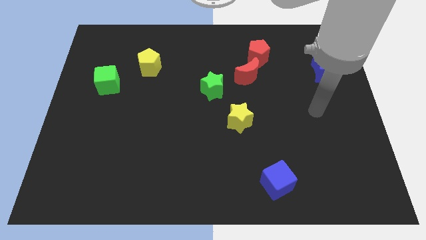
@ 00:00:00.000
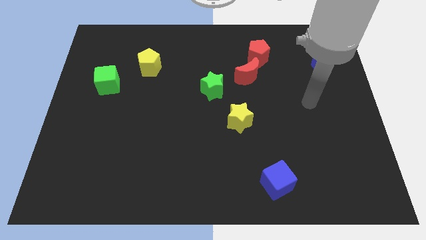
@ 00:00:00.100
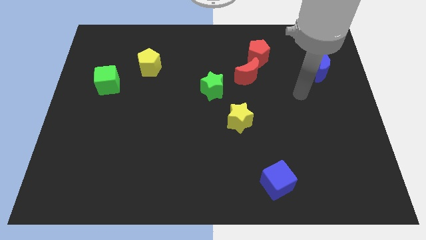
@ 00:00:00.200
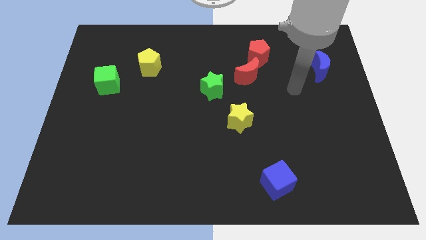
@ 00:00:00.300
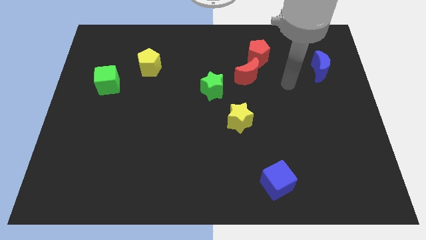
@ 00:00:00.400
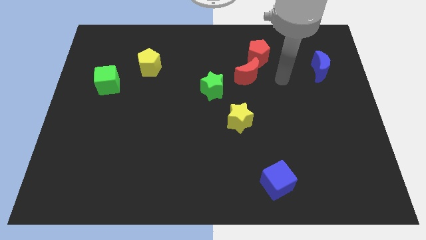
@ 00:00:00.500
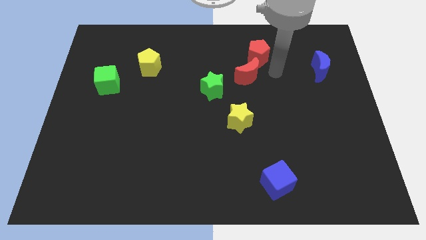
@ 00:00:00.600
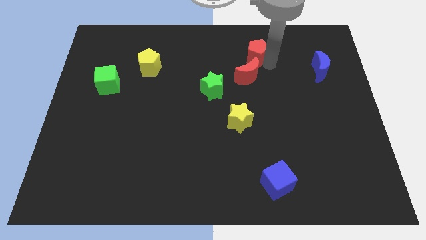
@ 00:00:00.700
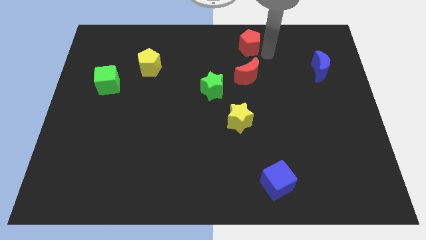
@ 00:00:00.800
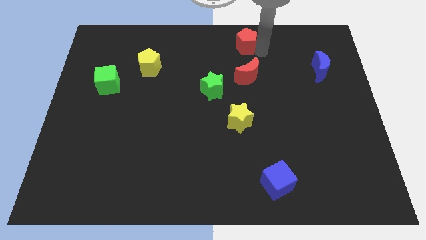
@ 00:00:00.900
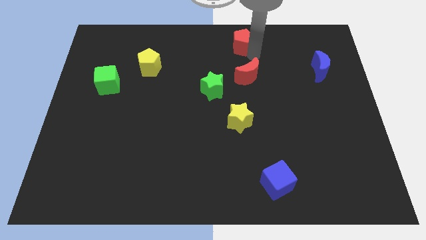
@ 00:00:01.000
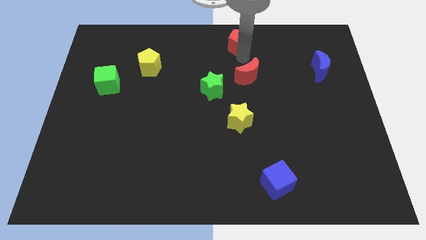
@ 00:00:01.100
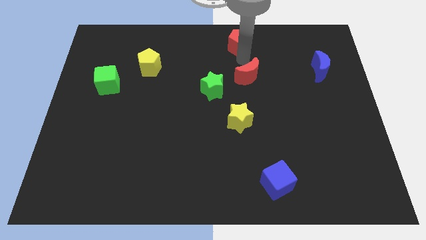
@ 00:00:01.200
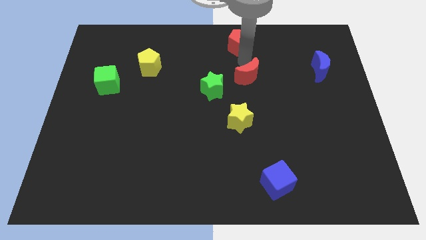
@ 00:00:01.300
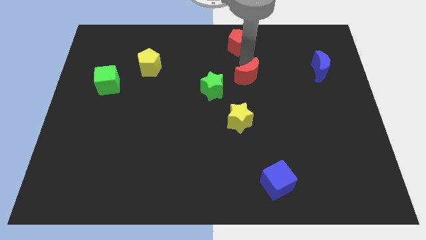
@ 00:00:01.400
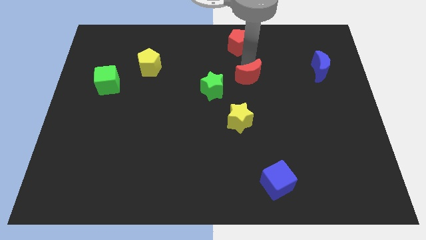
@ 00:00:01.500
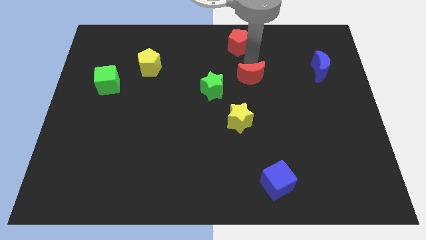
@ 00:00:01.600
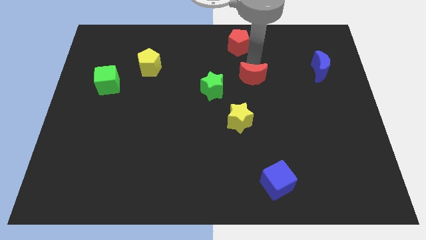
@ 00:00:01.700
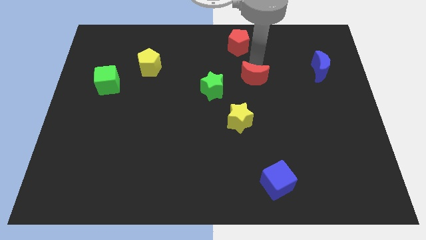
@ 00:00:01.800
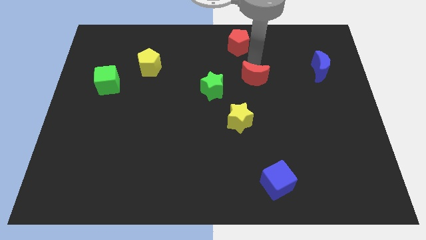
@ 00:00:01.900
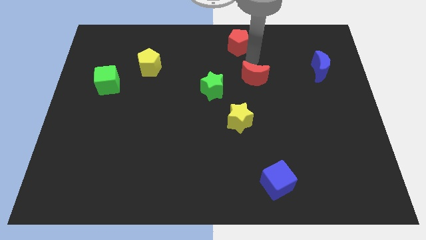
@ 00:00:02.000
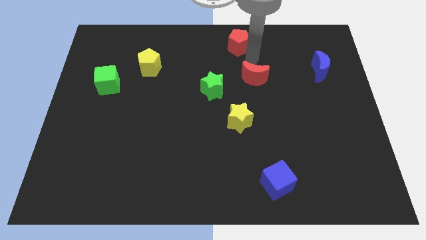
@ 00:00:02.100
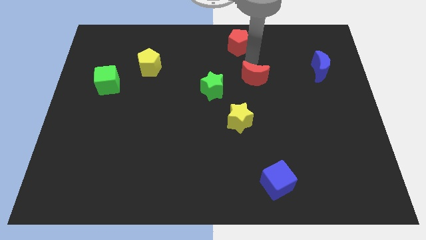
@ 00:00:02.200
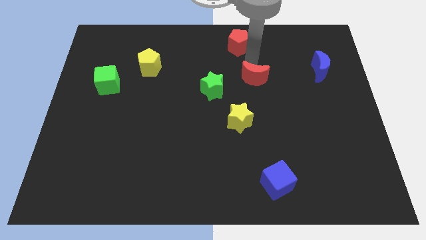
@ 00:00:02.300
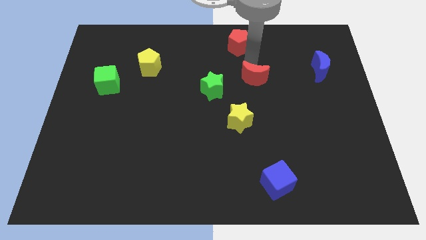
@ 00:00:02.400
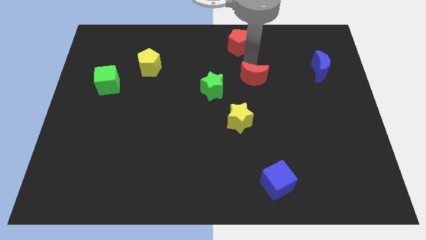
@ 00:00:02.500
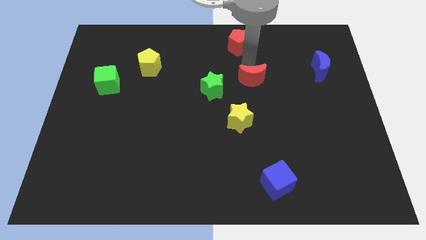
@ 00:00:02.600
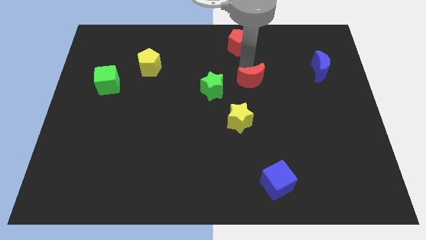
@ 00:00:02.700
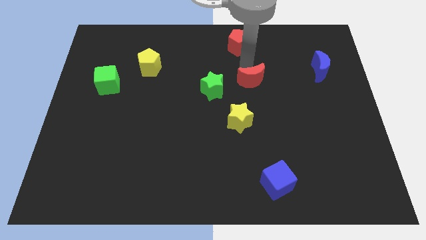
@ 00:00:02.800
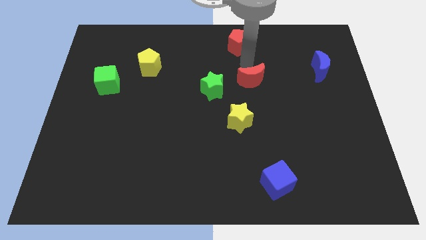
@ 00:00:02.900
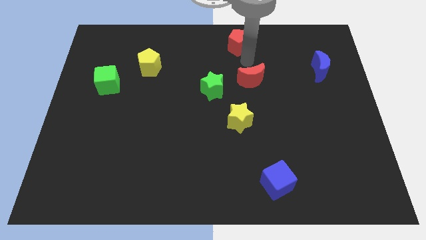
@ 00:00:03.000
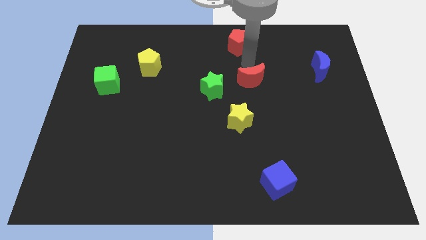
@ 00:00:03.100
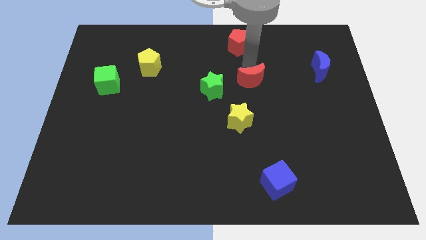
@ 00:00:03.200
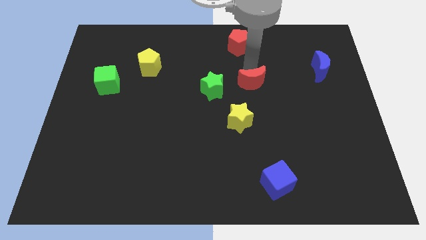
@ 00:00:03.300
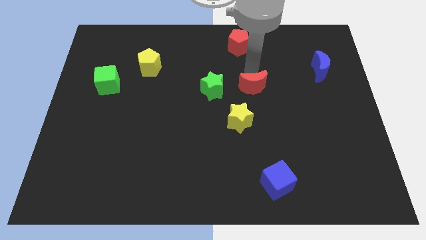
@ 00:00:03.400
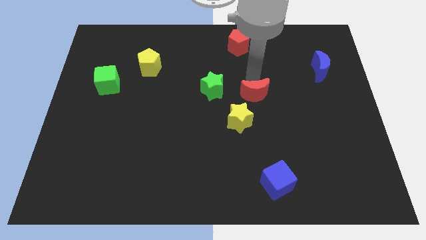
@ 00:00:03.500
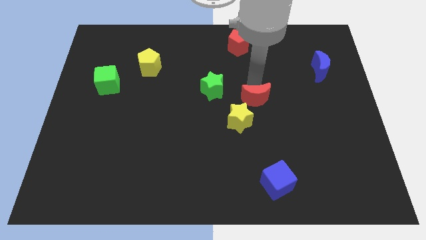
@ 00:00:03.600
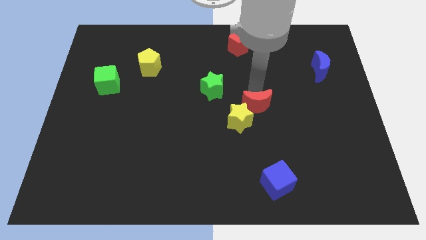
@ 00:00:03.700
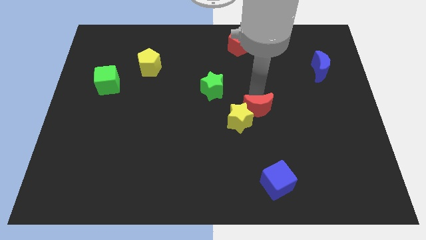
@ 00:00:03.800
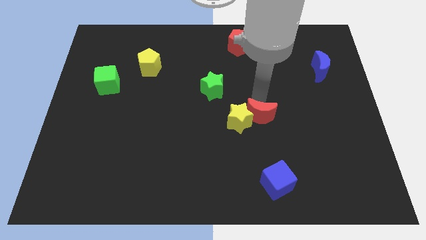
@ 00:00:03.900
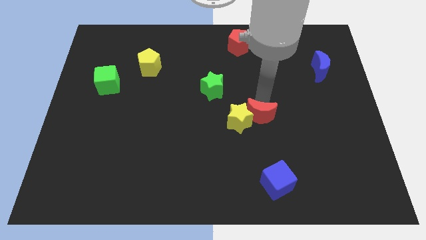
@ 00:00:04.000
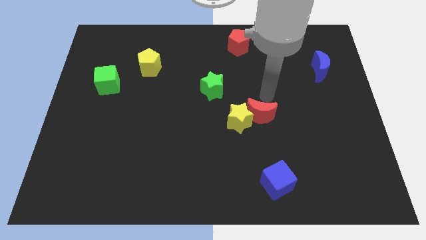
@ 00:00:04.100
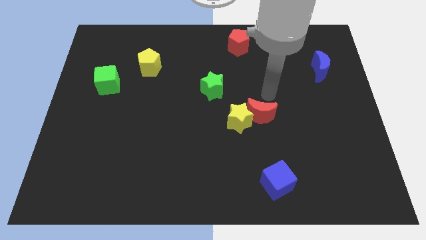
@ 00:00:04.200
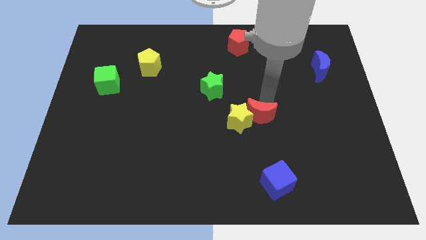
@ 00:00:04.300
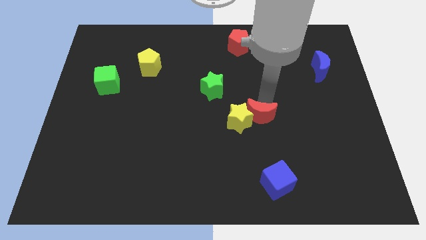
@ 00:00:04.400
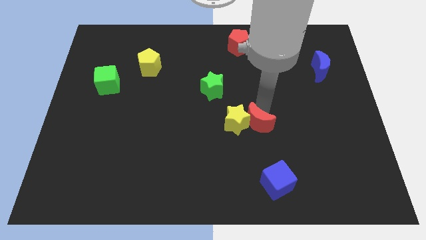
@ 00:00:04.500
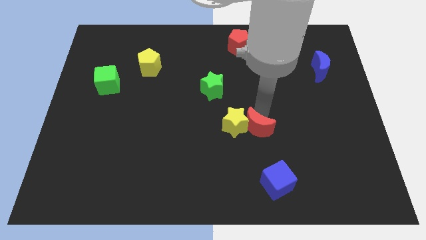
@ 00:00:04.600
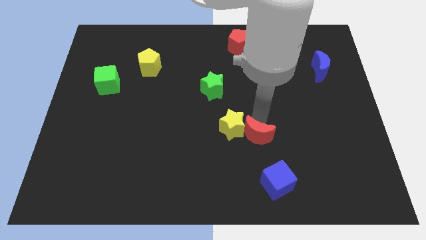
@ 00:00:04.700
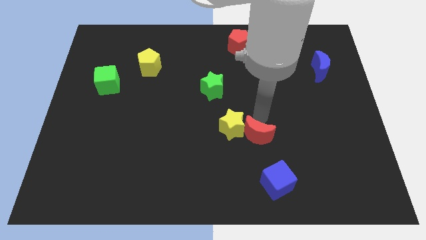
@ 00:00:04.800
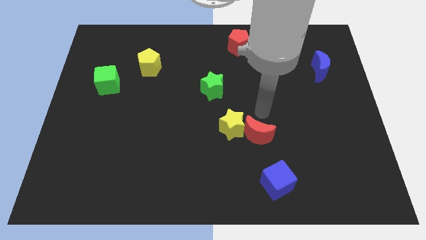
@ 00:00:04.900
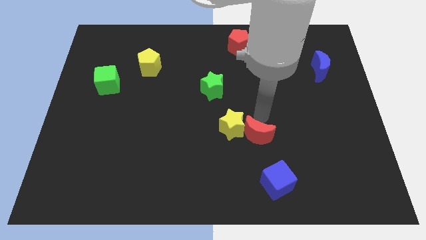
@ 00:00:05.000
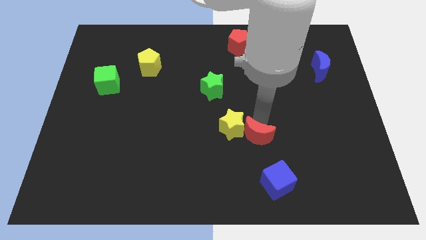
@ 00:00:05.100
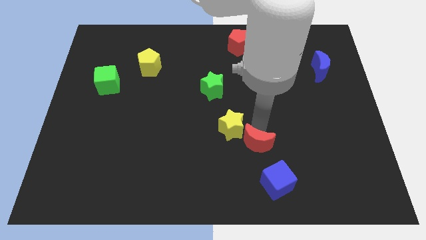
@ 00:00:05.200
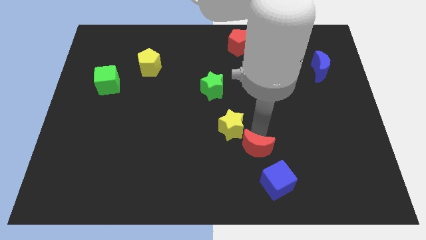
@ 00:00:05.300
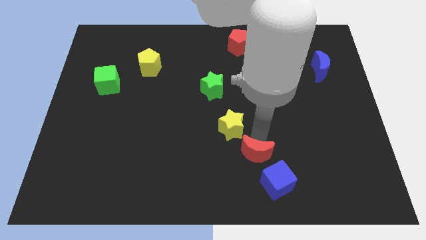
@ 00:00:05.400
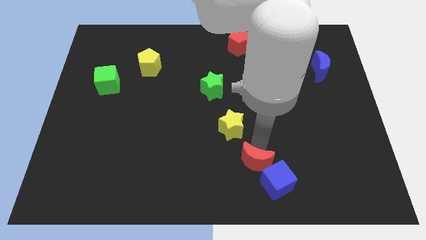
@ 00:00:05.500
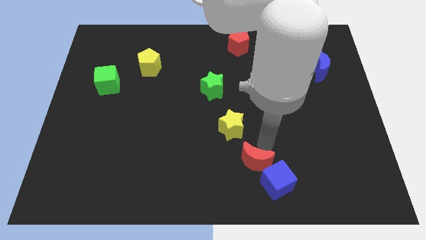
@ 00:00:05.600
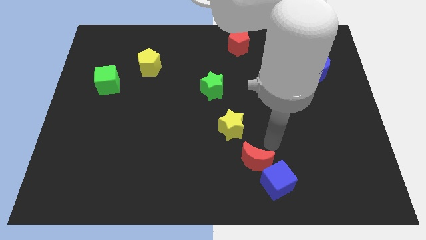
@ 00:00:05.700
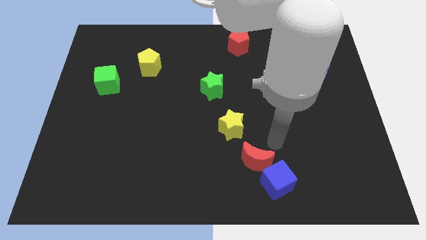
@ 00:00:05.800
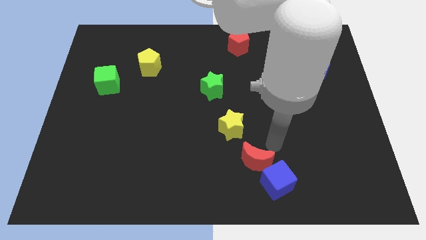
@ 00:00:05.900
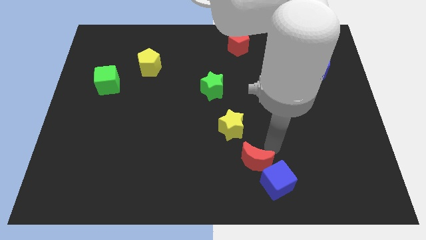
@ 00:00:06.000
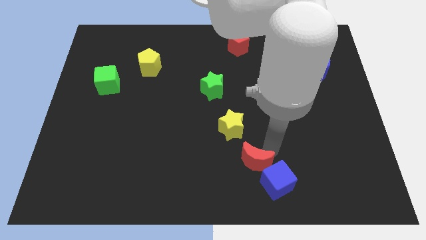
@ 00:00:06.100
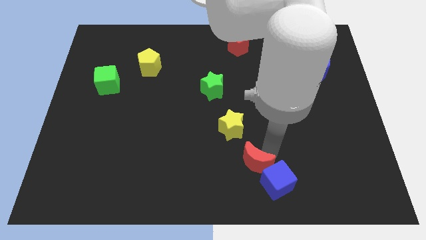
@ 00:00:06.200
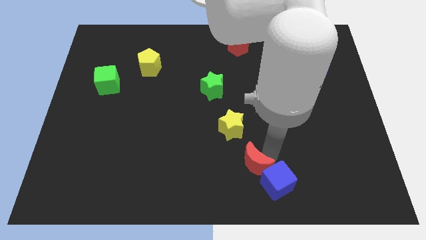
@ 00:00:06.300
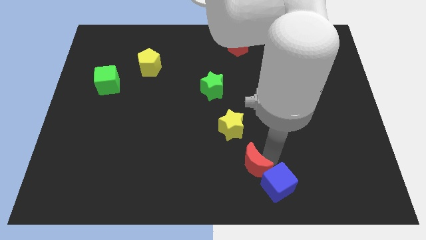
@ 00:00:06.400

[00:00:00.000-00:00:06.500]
push the red moon to the bottom side
